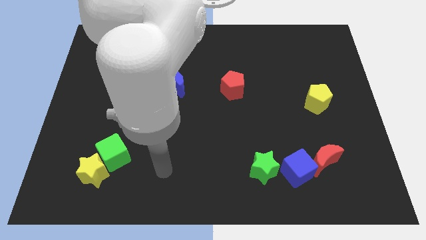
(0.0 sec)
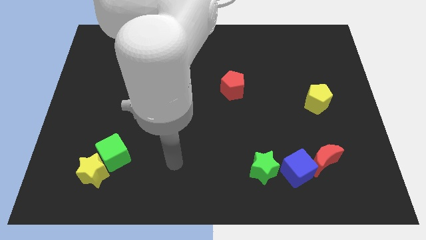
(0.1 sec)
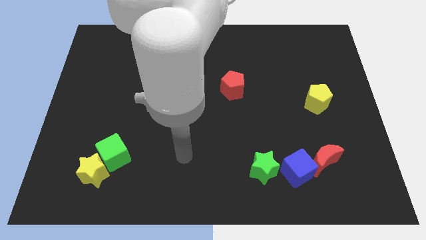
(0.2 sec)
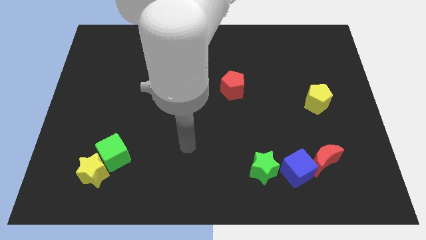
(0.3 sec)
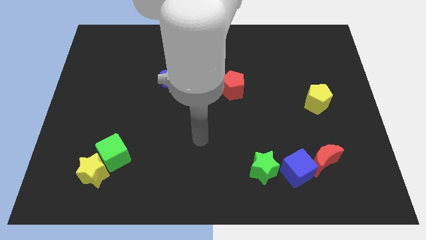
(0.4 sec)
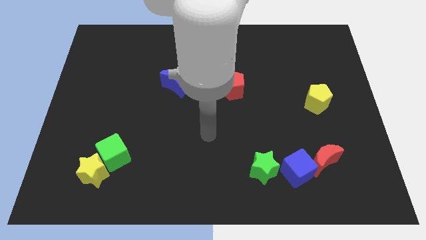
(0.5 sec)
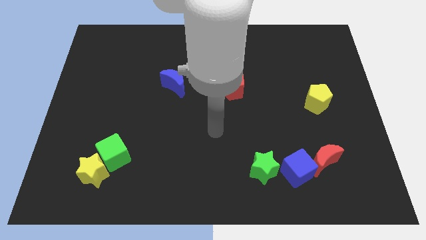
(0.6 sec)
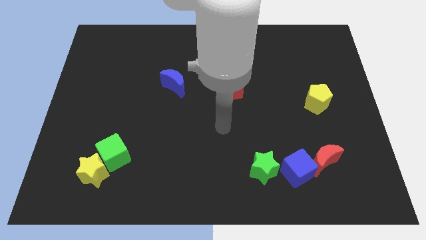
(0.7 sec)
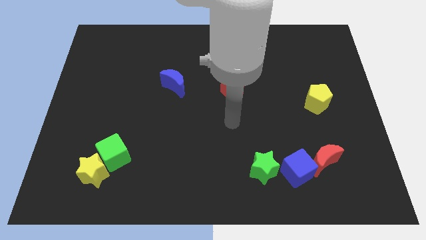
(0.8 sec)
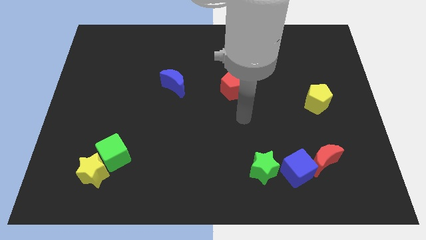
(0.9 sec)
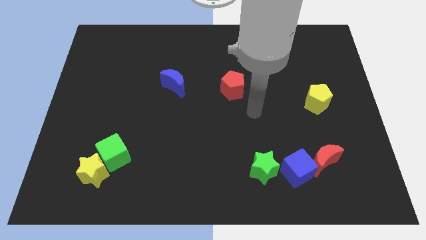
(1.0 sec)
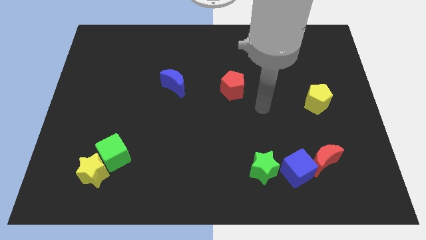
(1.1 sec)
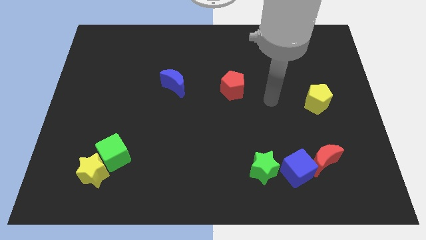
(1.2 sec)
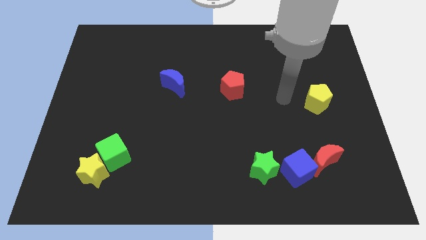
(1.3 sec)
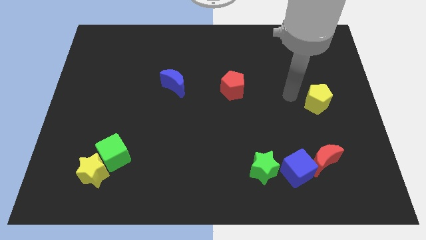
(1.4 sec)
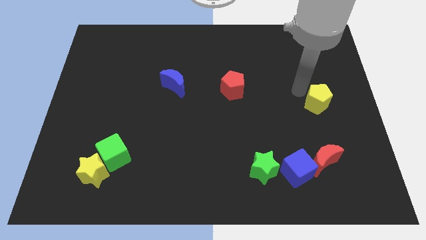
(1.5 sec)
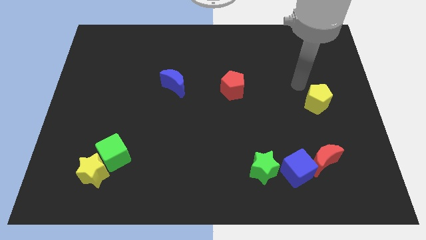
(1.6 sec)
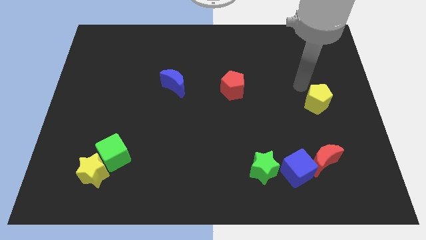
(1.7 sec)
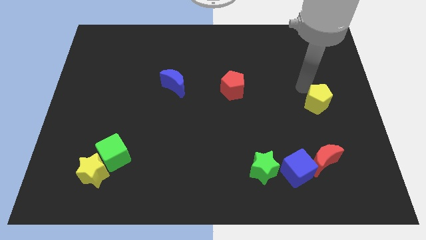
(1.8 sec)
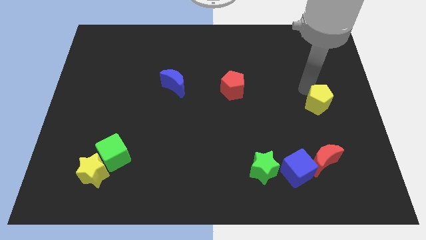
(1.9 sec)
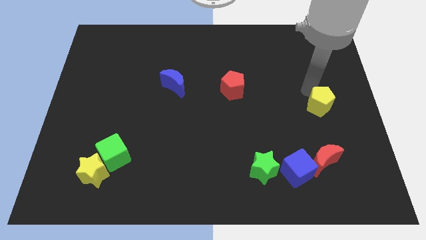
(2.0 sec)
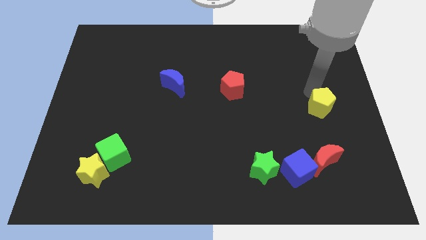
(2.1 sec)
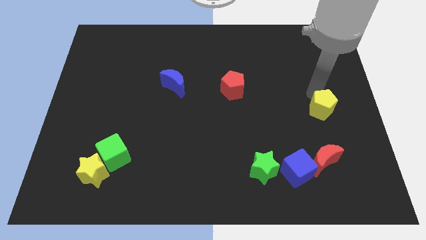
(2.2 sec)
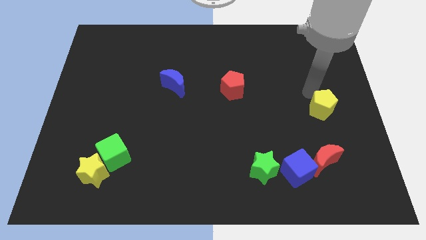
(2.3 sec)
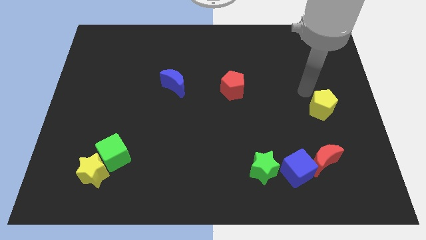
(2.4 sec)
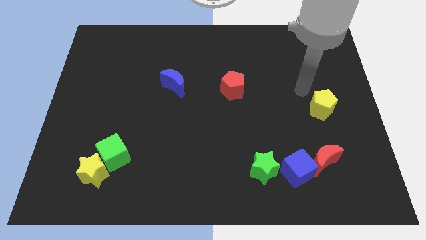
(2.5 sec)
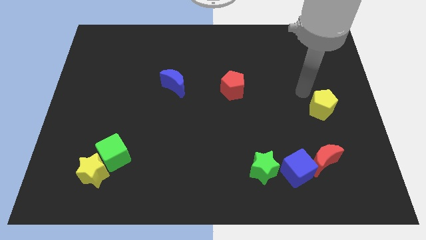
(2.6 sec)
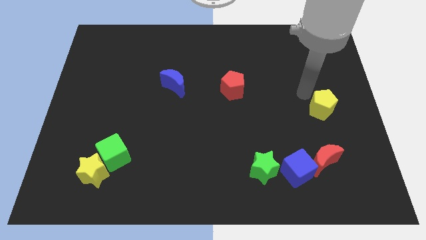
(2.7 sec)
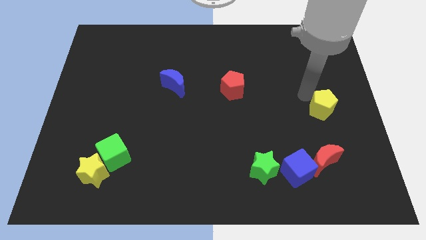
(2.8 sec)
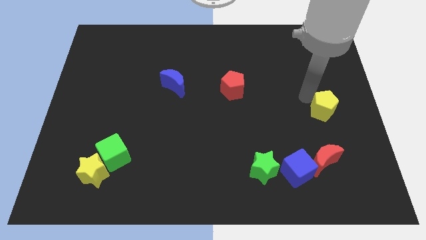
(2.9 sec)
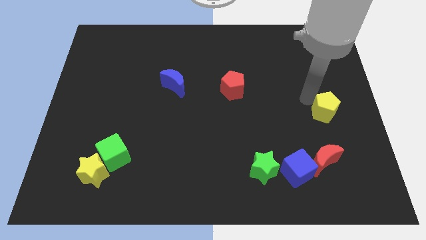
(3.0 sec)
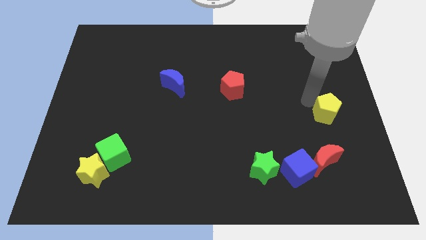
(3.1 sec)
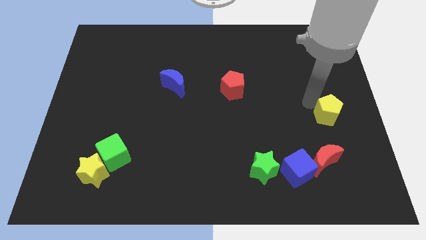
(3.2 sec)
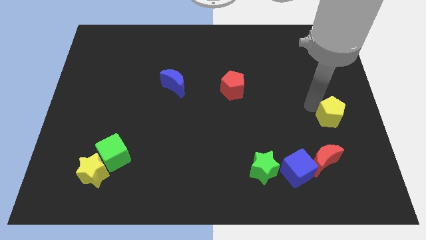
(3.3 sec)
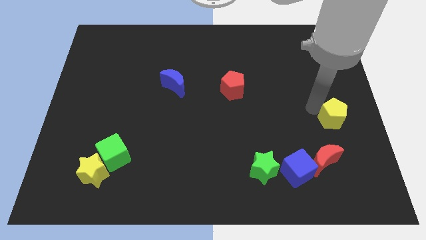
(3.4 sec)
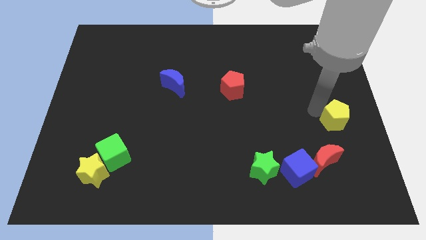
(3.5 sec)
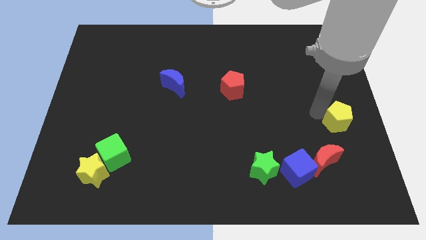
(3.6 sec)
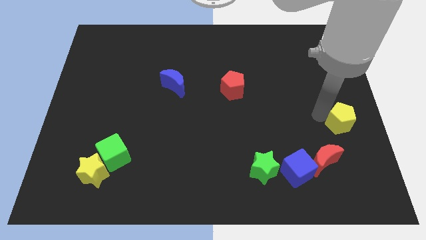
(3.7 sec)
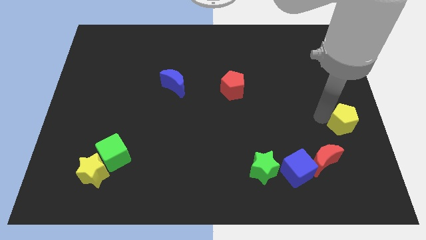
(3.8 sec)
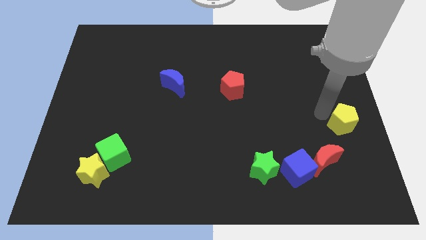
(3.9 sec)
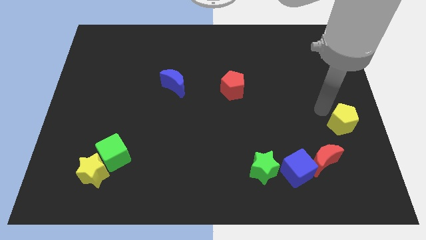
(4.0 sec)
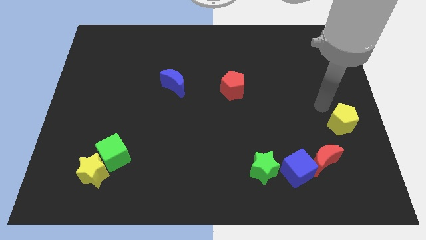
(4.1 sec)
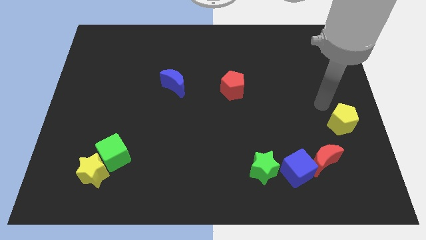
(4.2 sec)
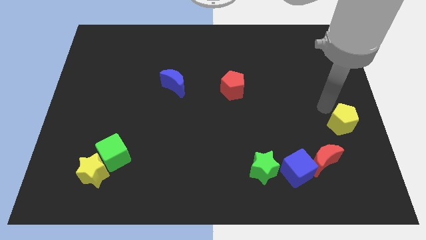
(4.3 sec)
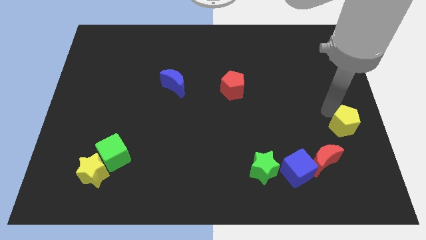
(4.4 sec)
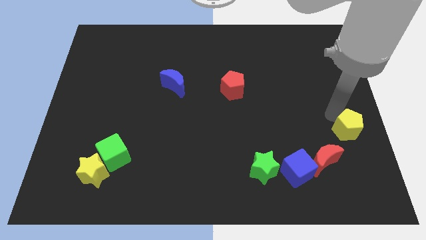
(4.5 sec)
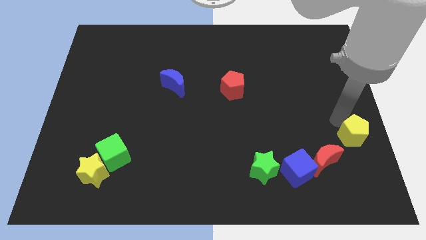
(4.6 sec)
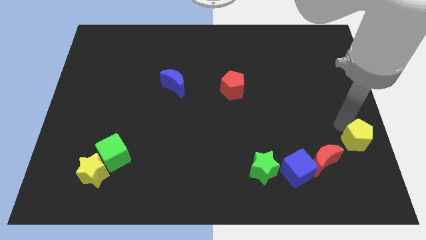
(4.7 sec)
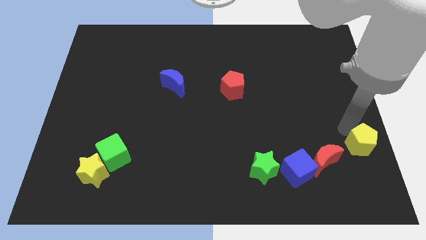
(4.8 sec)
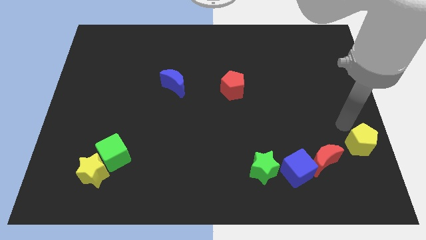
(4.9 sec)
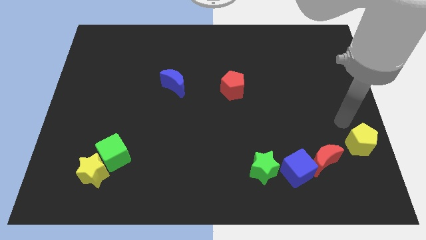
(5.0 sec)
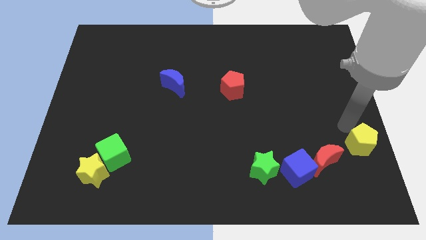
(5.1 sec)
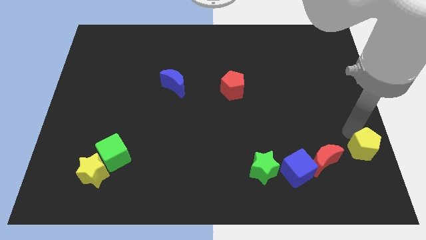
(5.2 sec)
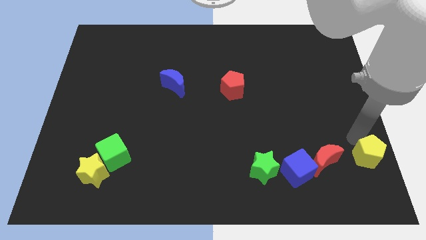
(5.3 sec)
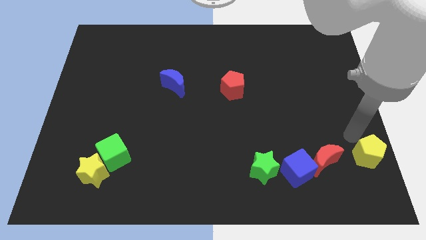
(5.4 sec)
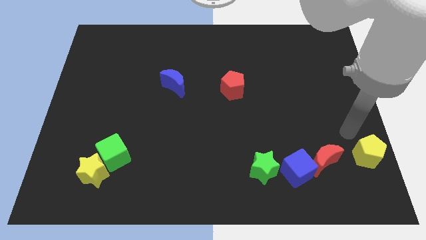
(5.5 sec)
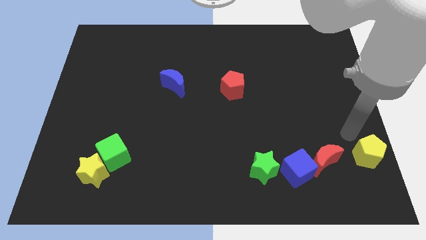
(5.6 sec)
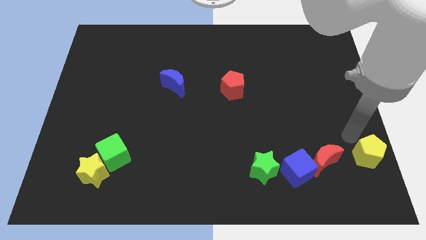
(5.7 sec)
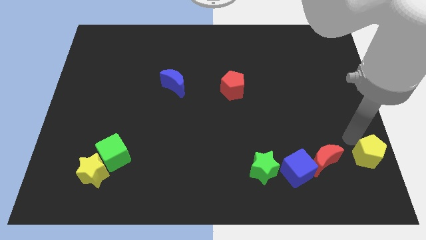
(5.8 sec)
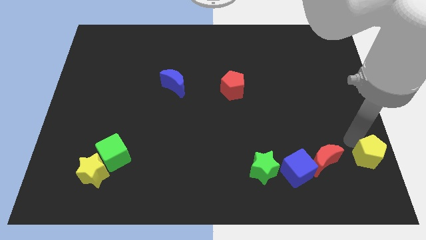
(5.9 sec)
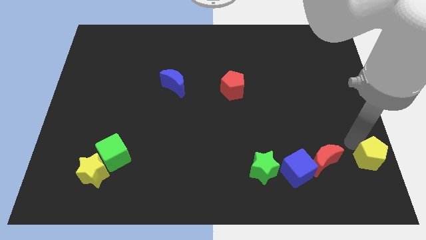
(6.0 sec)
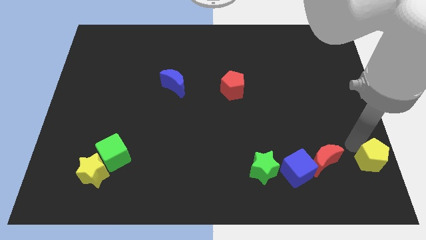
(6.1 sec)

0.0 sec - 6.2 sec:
push the yellow pentagon to the bottom right

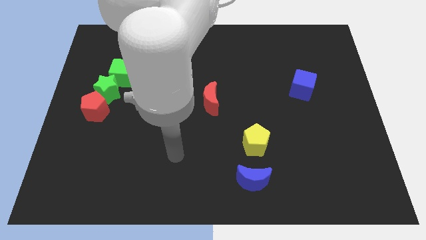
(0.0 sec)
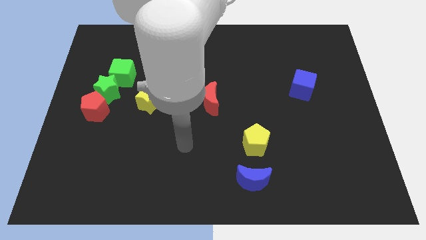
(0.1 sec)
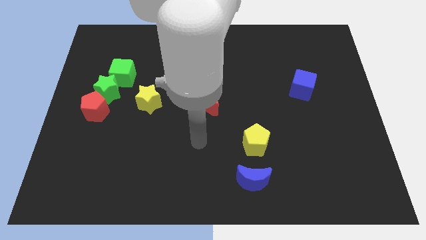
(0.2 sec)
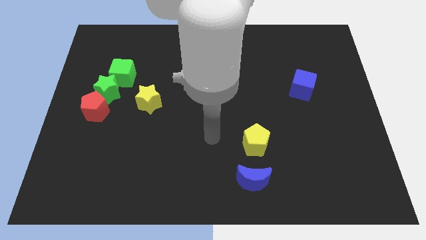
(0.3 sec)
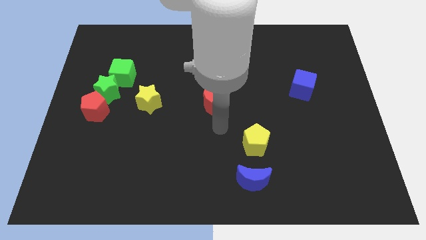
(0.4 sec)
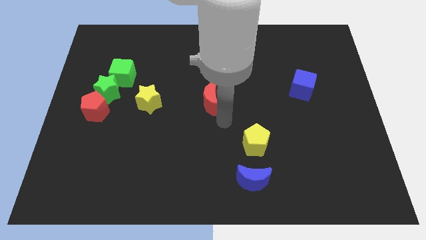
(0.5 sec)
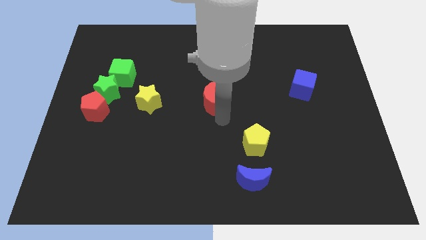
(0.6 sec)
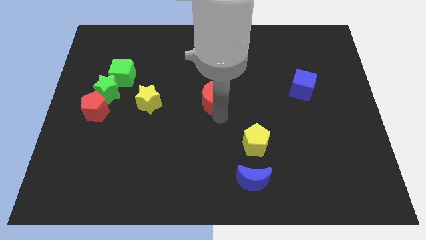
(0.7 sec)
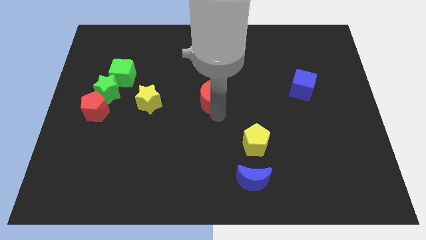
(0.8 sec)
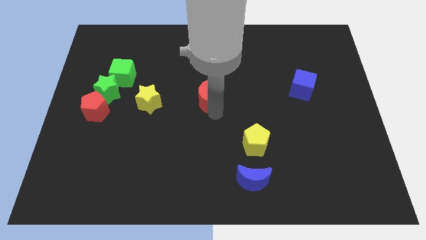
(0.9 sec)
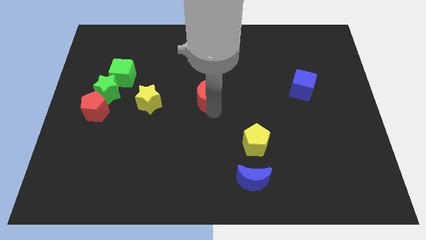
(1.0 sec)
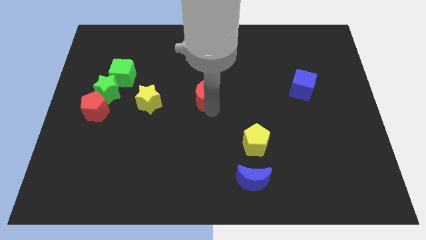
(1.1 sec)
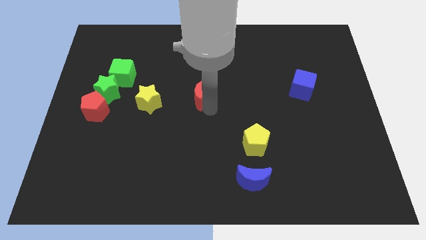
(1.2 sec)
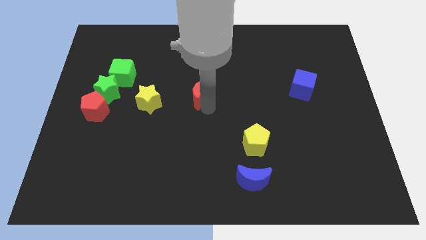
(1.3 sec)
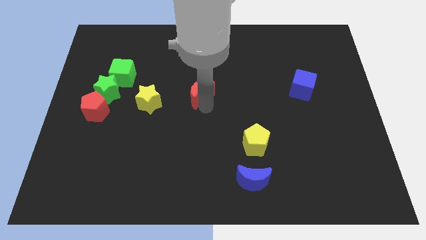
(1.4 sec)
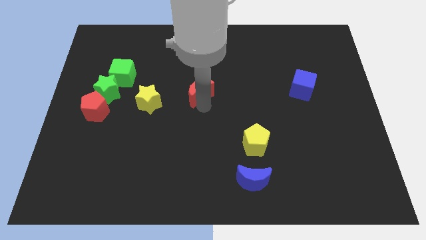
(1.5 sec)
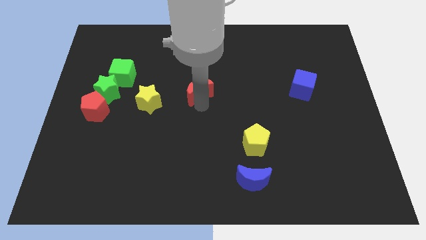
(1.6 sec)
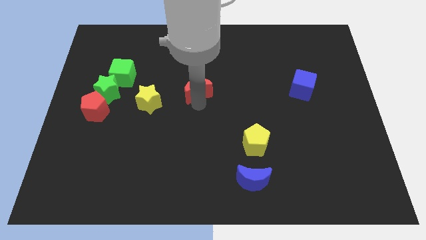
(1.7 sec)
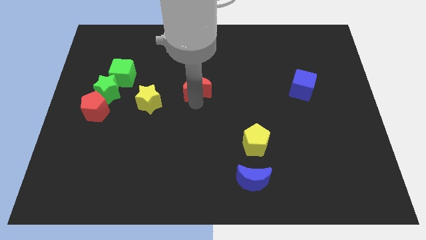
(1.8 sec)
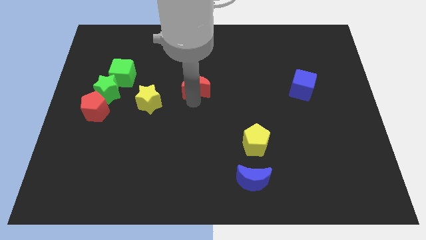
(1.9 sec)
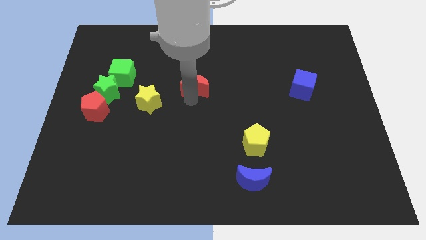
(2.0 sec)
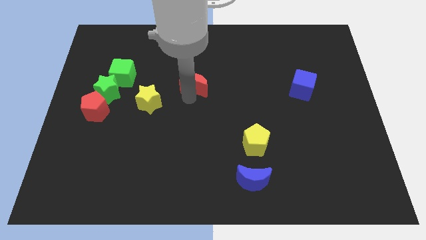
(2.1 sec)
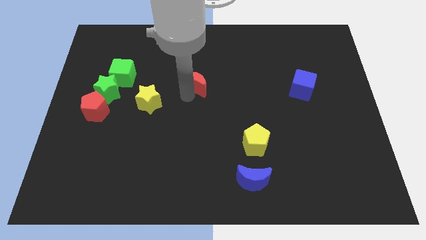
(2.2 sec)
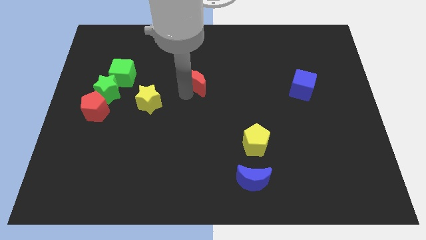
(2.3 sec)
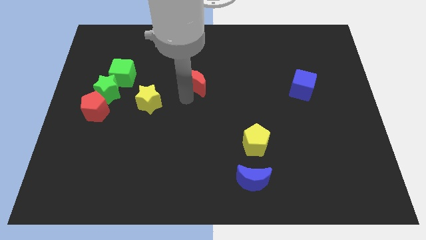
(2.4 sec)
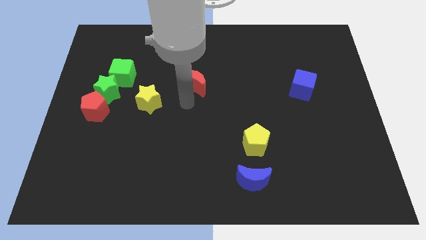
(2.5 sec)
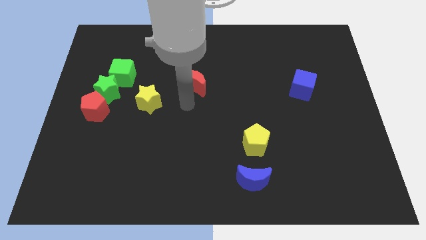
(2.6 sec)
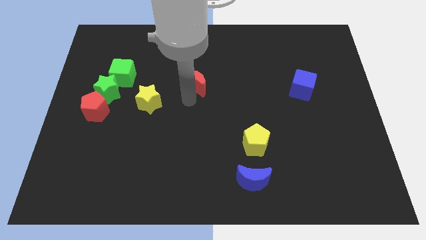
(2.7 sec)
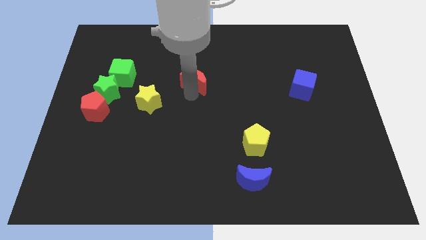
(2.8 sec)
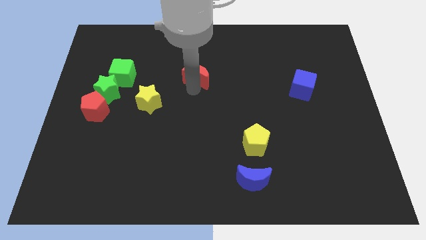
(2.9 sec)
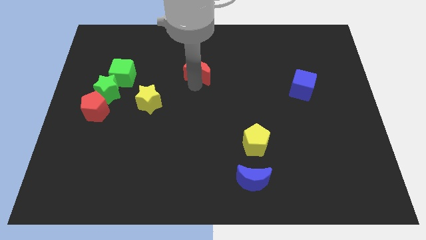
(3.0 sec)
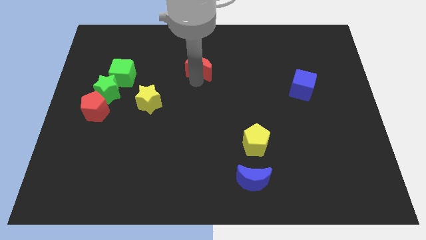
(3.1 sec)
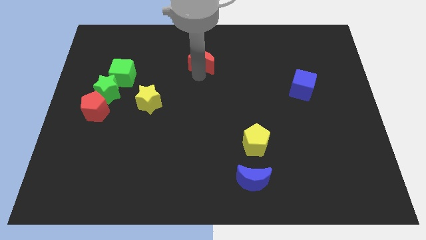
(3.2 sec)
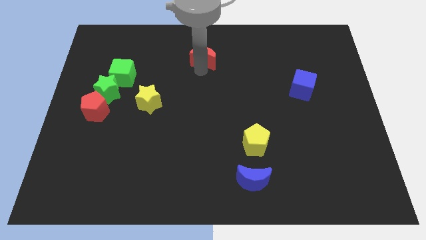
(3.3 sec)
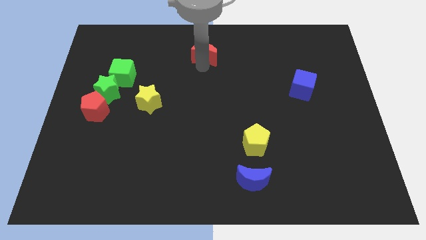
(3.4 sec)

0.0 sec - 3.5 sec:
slide the red moon to the towards your base
